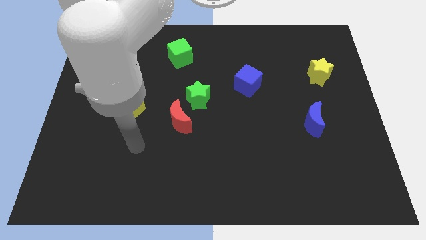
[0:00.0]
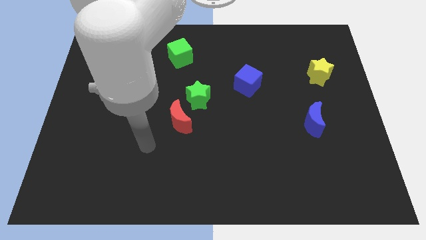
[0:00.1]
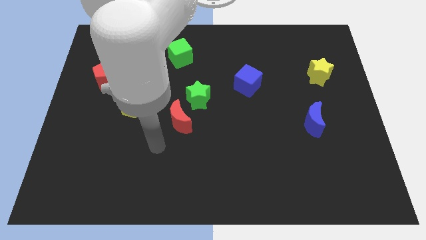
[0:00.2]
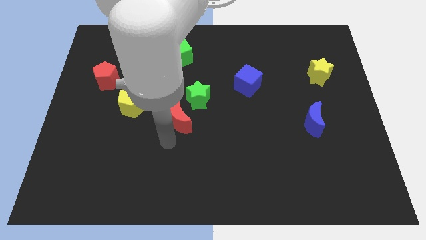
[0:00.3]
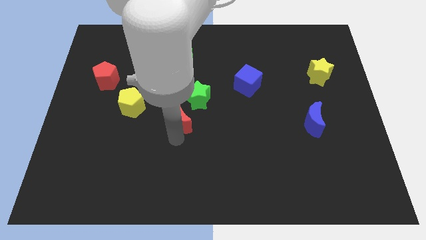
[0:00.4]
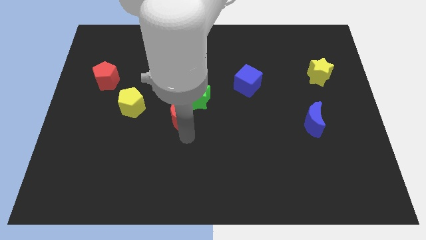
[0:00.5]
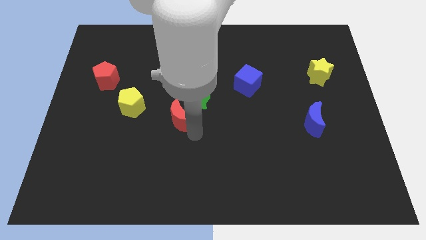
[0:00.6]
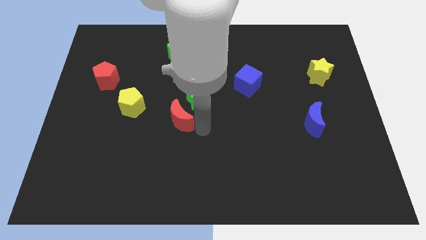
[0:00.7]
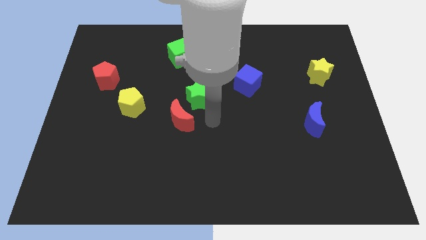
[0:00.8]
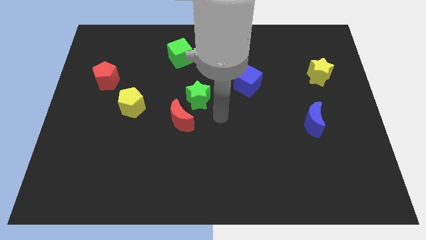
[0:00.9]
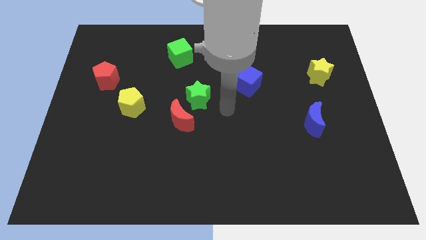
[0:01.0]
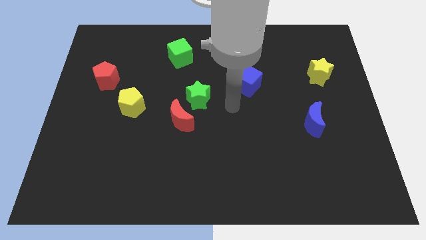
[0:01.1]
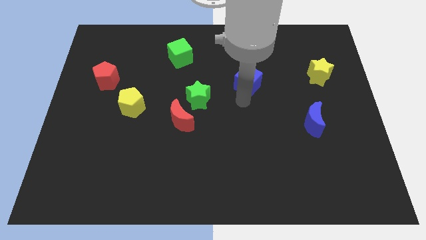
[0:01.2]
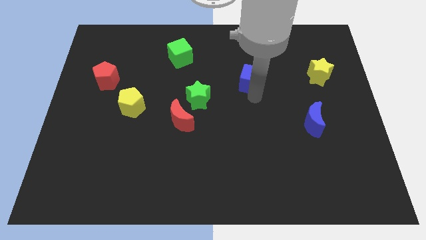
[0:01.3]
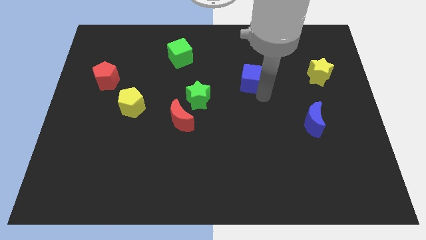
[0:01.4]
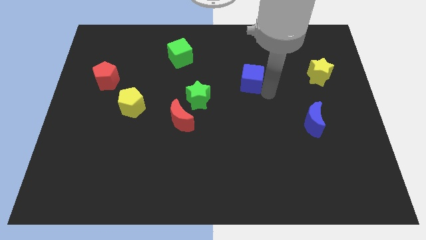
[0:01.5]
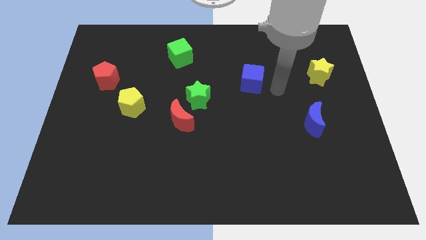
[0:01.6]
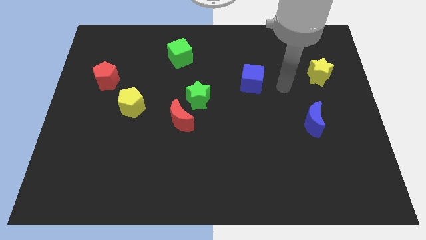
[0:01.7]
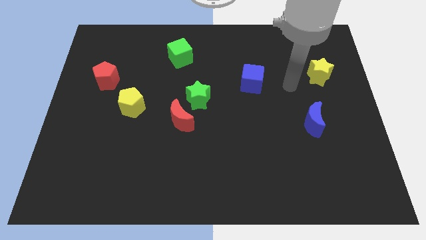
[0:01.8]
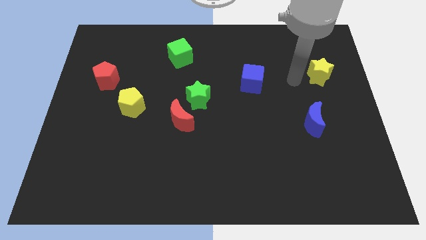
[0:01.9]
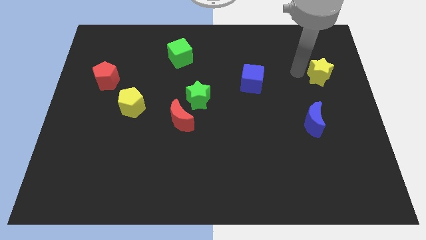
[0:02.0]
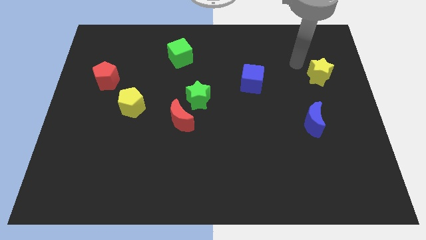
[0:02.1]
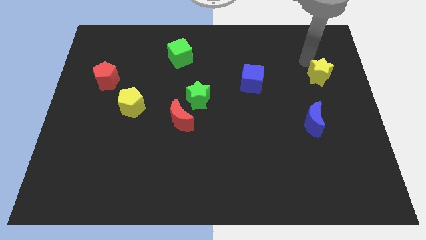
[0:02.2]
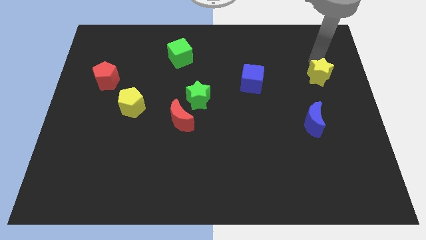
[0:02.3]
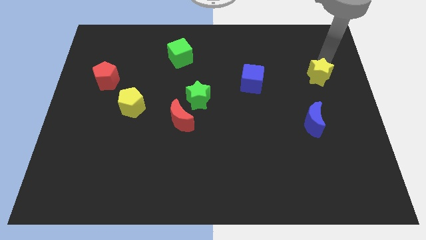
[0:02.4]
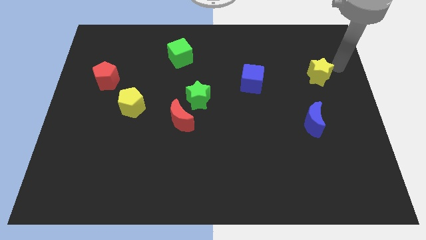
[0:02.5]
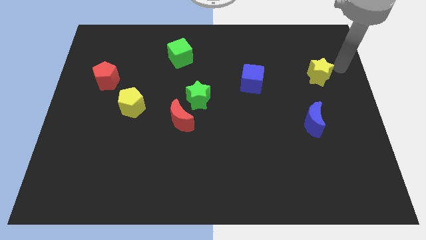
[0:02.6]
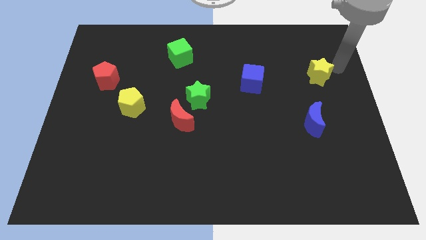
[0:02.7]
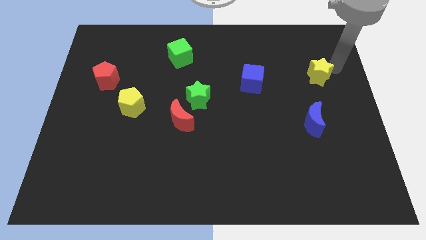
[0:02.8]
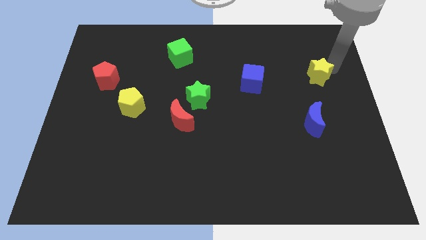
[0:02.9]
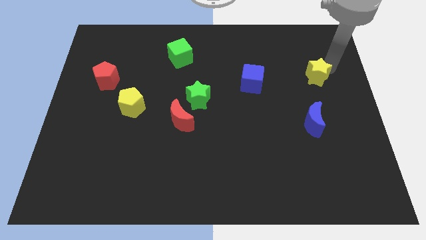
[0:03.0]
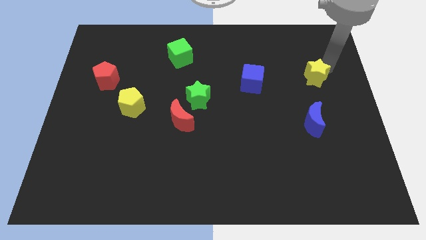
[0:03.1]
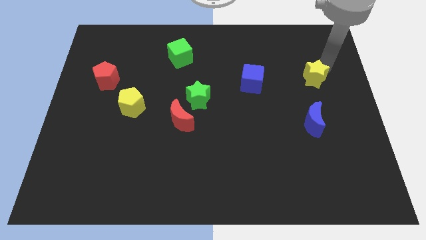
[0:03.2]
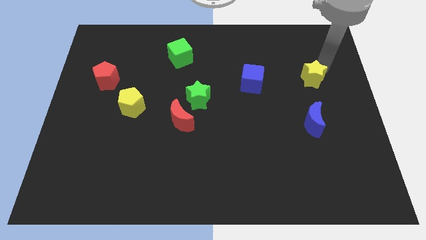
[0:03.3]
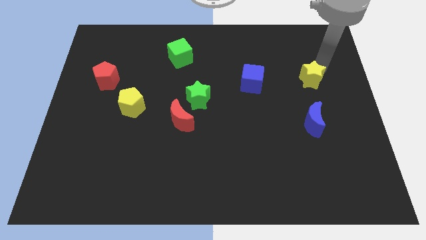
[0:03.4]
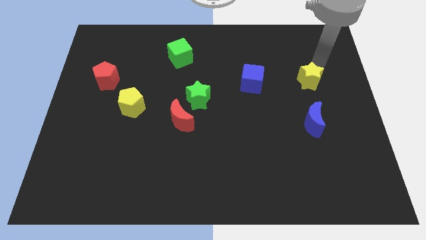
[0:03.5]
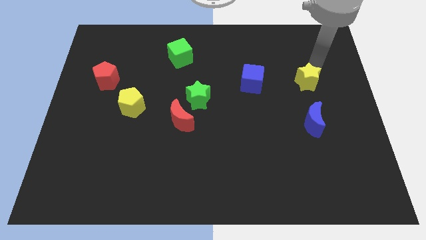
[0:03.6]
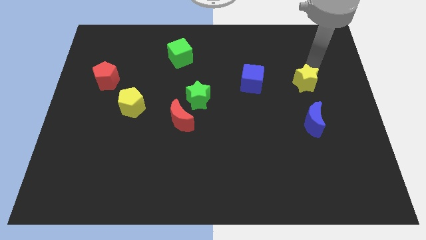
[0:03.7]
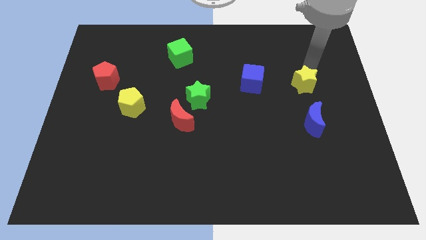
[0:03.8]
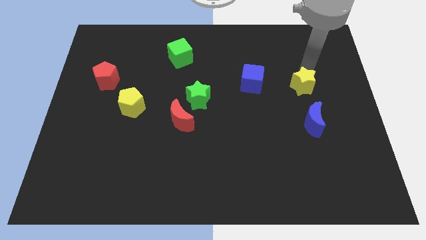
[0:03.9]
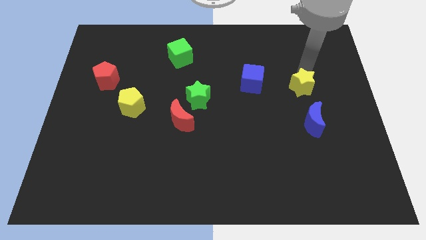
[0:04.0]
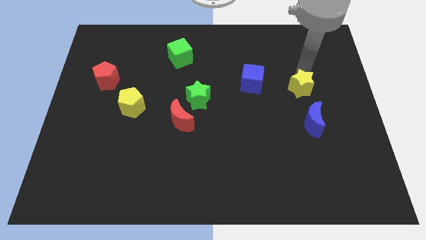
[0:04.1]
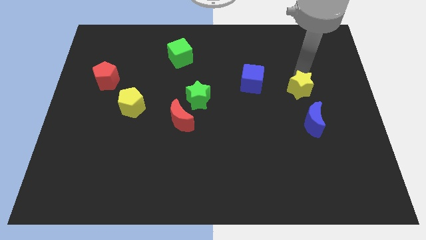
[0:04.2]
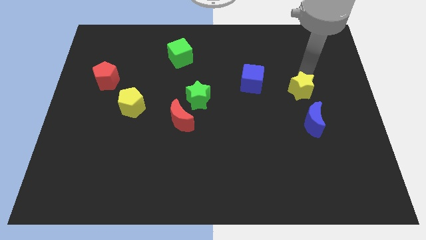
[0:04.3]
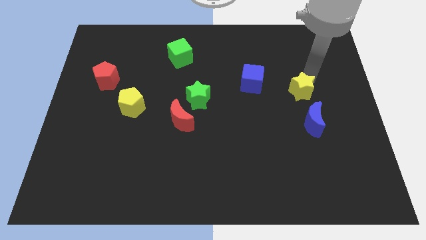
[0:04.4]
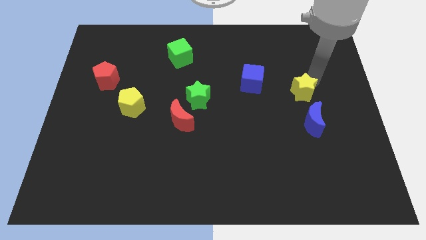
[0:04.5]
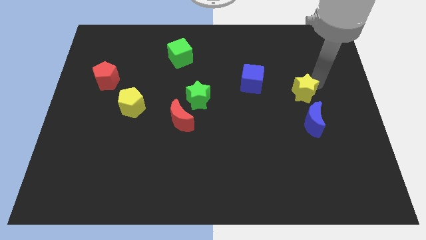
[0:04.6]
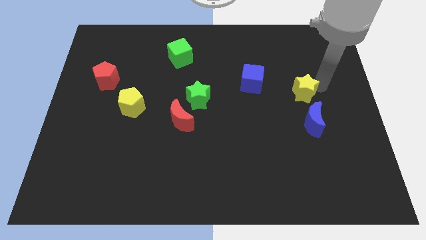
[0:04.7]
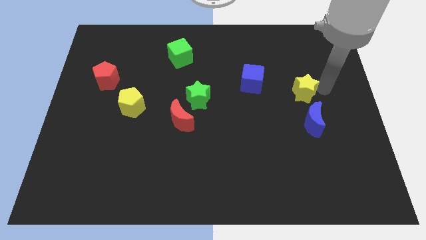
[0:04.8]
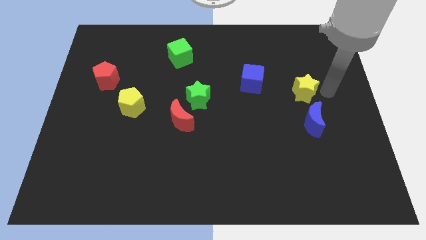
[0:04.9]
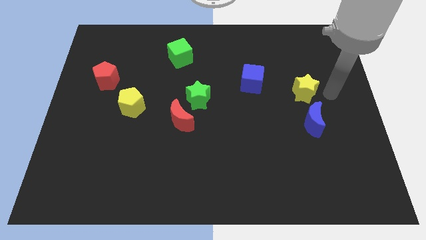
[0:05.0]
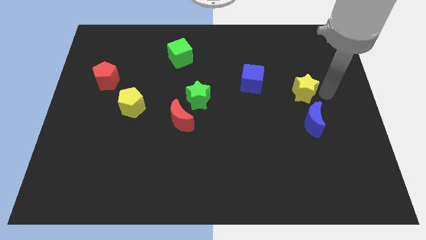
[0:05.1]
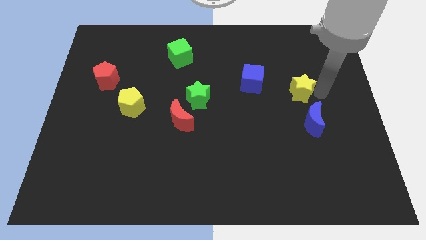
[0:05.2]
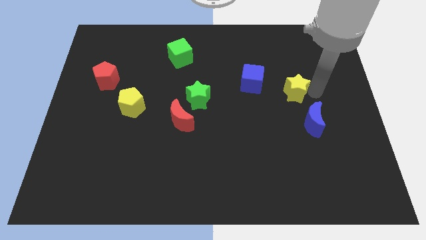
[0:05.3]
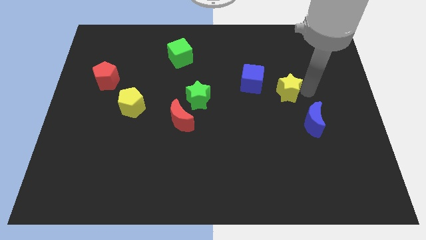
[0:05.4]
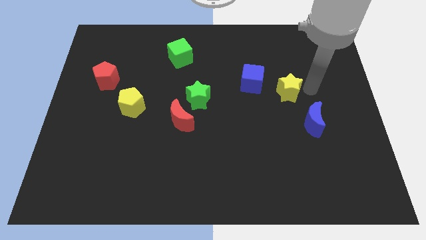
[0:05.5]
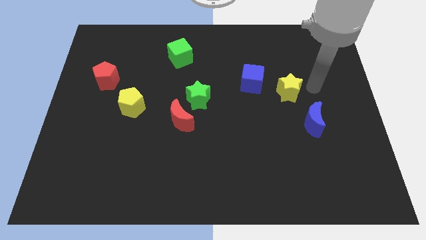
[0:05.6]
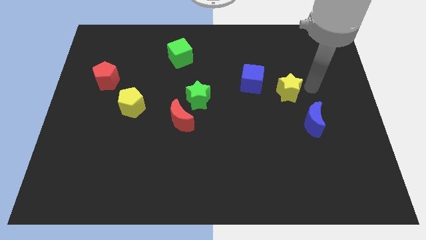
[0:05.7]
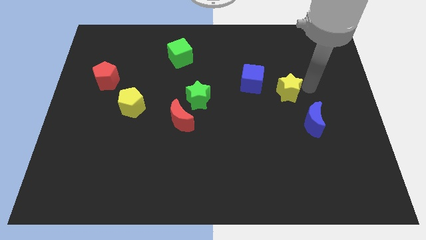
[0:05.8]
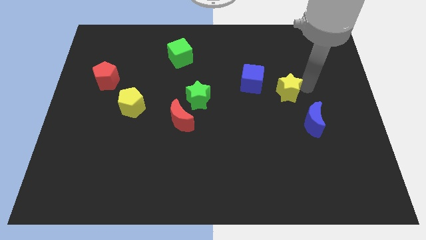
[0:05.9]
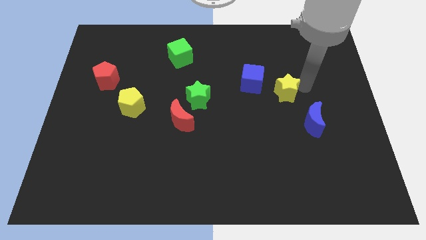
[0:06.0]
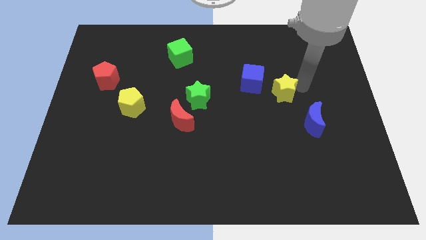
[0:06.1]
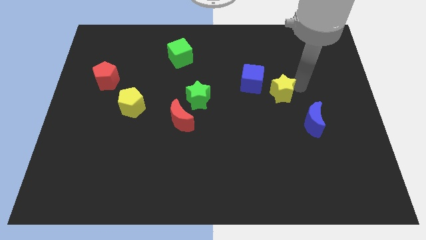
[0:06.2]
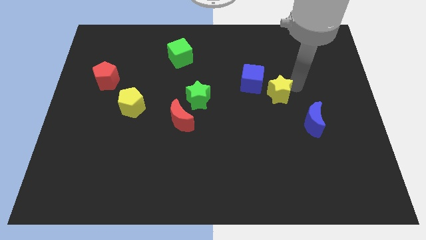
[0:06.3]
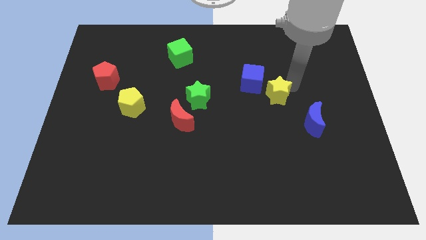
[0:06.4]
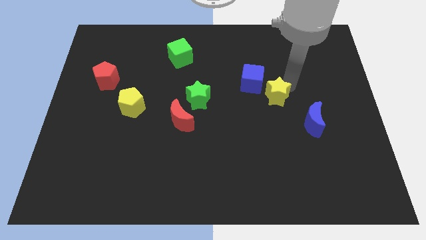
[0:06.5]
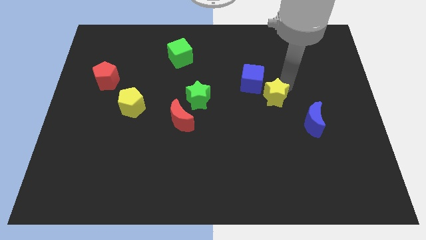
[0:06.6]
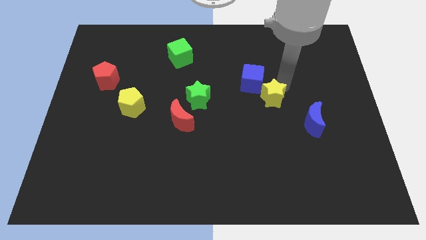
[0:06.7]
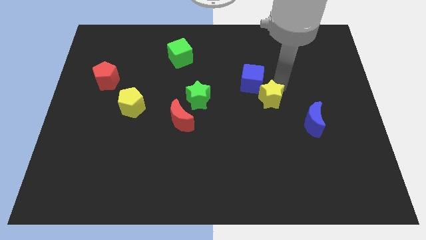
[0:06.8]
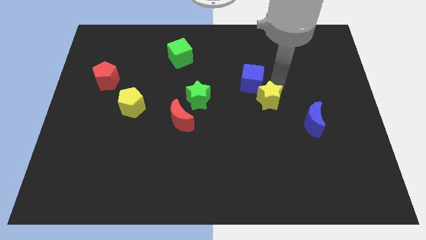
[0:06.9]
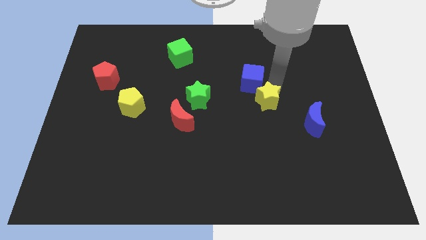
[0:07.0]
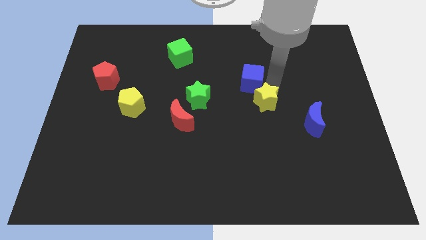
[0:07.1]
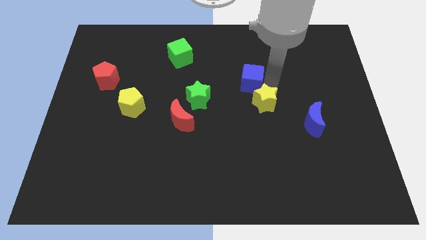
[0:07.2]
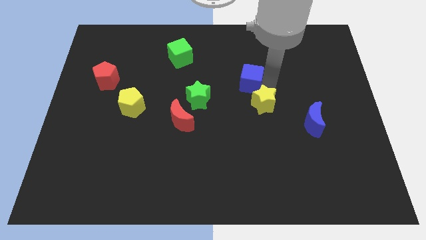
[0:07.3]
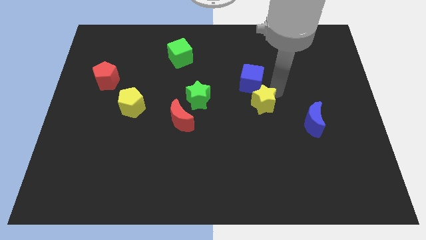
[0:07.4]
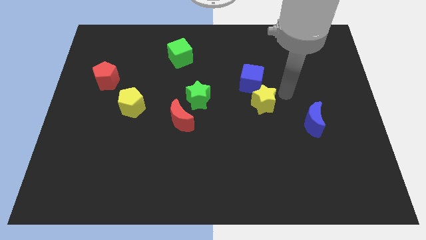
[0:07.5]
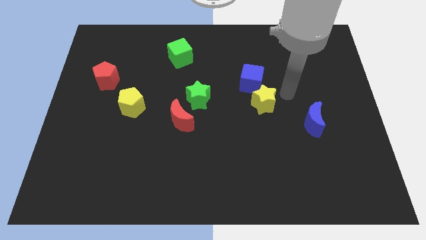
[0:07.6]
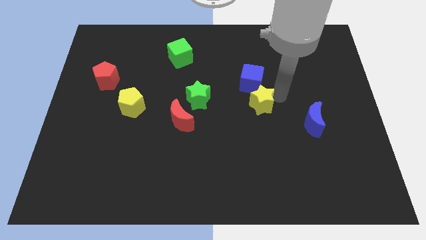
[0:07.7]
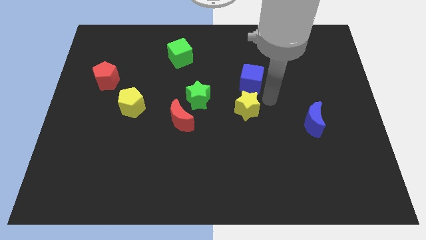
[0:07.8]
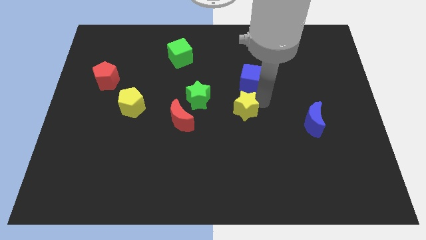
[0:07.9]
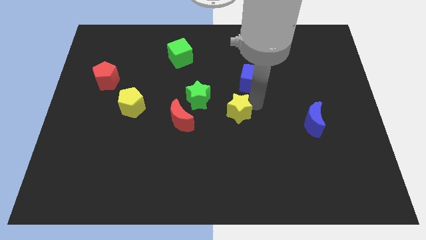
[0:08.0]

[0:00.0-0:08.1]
move the yellow star to the bottom right of the green star
